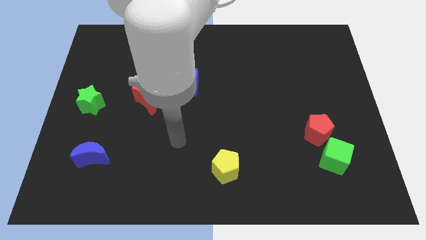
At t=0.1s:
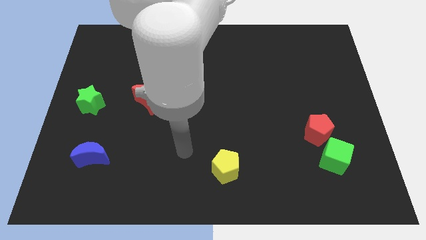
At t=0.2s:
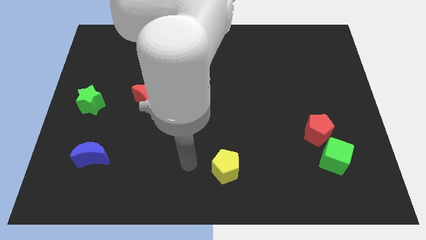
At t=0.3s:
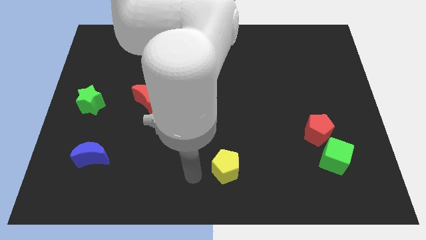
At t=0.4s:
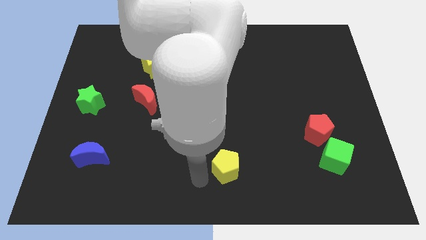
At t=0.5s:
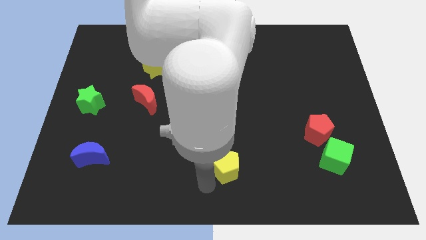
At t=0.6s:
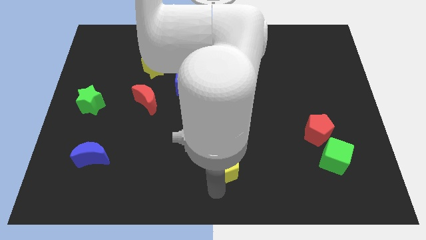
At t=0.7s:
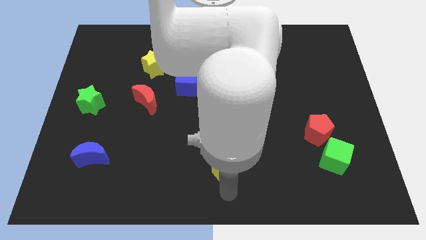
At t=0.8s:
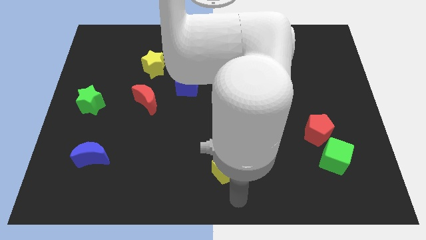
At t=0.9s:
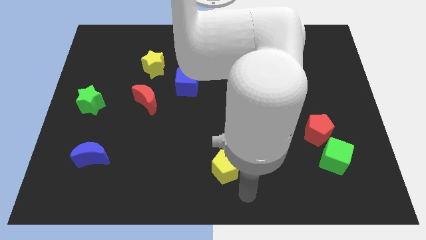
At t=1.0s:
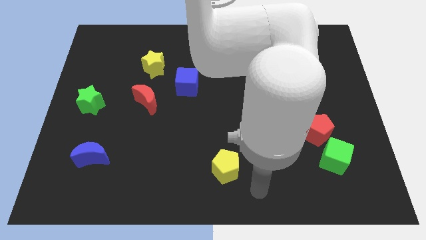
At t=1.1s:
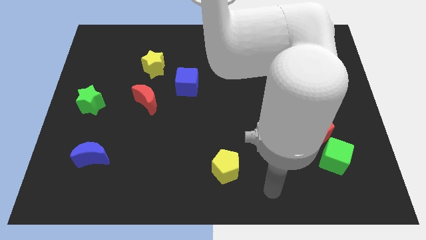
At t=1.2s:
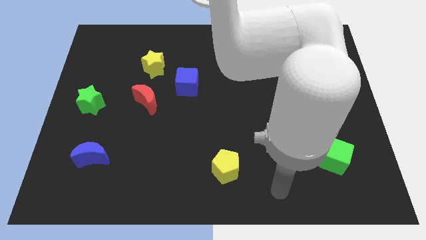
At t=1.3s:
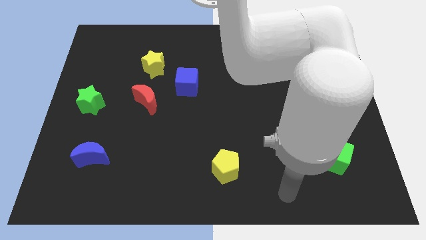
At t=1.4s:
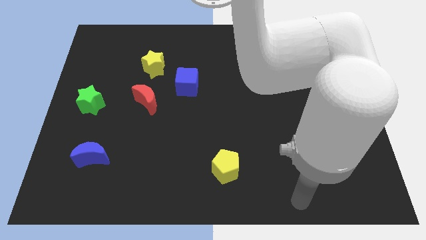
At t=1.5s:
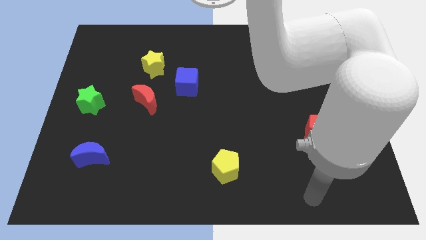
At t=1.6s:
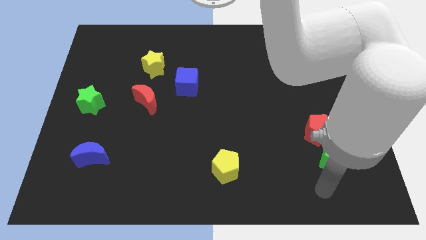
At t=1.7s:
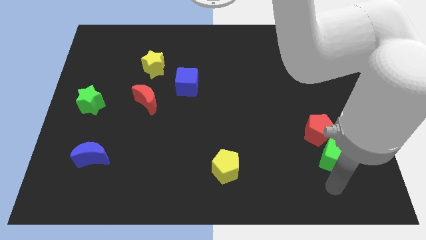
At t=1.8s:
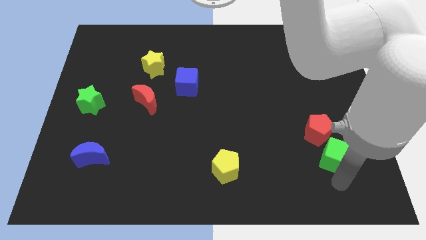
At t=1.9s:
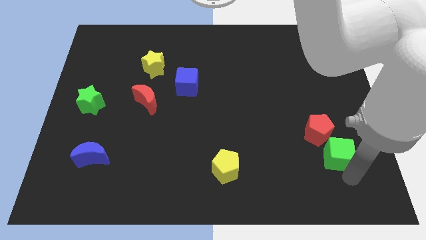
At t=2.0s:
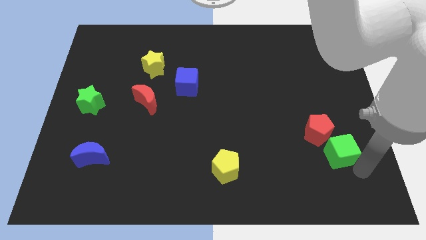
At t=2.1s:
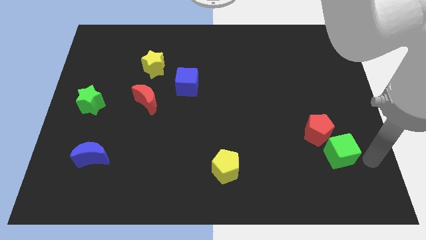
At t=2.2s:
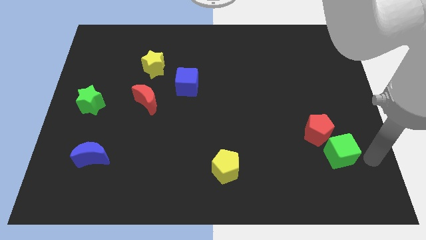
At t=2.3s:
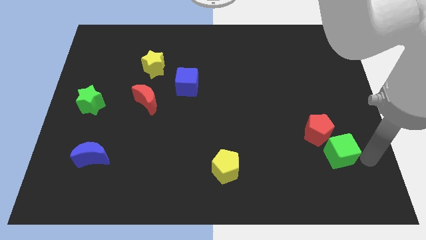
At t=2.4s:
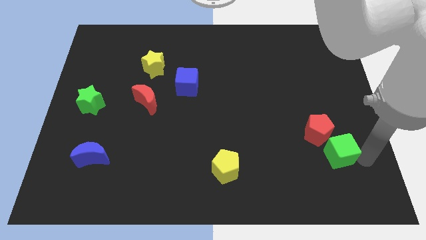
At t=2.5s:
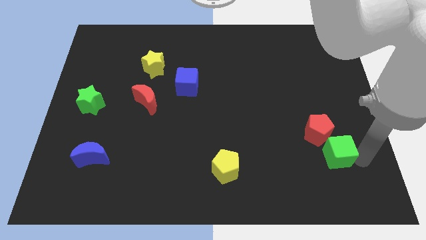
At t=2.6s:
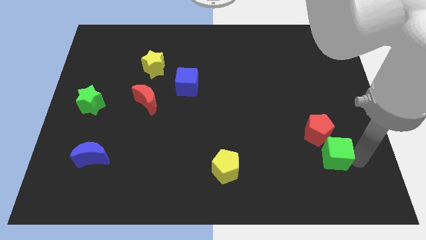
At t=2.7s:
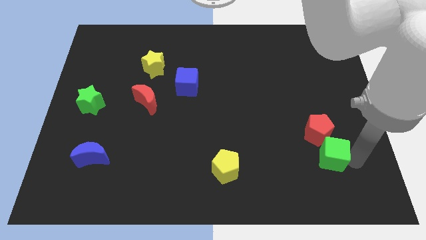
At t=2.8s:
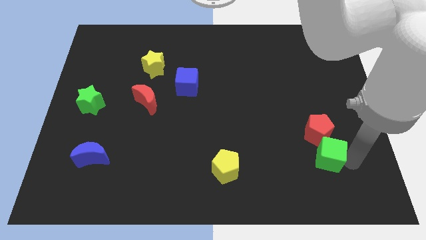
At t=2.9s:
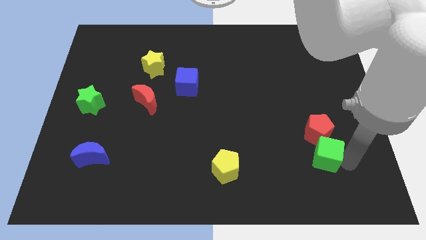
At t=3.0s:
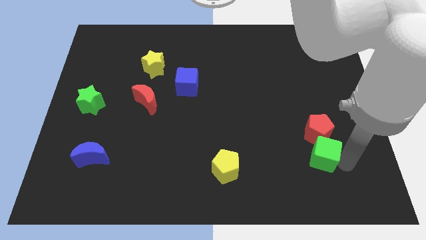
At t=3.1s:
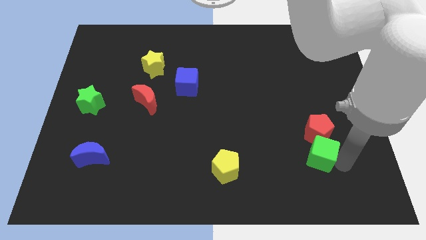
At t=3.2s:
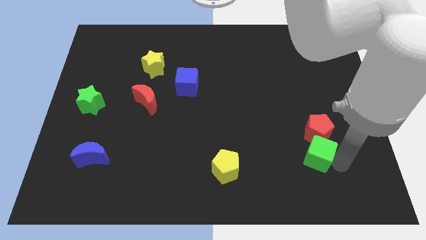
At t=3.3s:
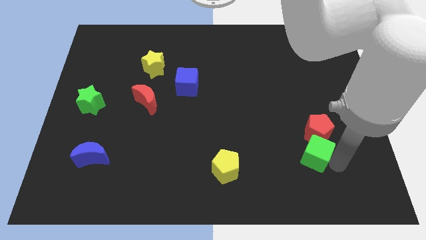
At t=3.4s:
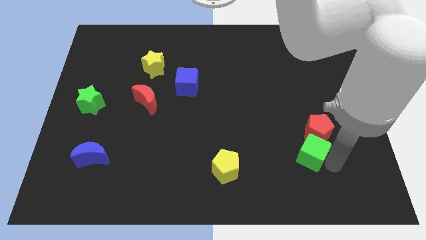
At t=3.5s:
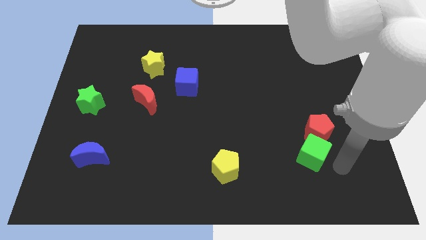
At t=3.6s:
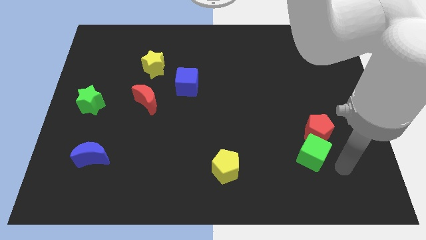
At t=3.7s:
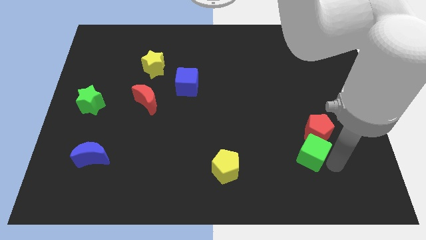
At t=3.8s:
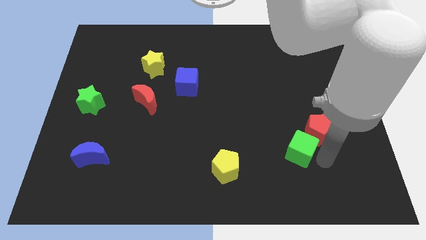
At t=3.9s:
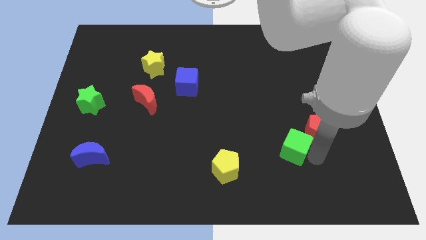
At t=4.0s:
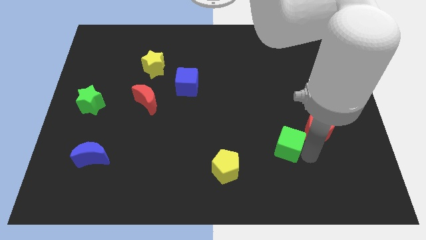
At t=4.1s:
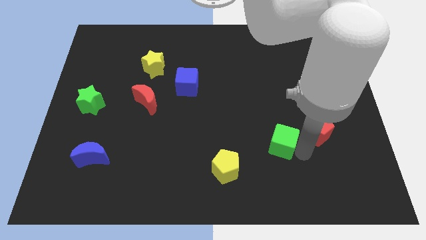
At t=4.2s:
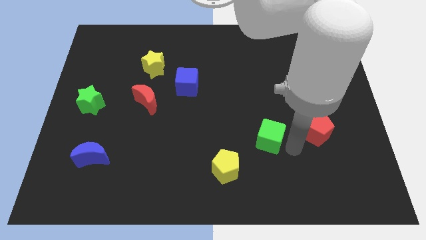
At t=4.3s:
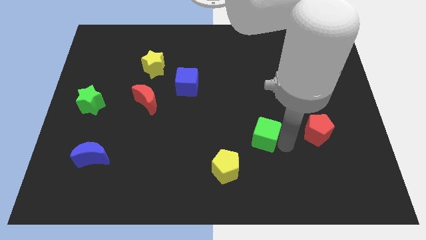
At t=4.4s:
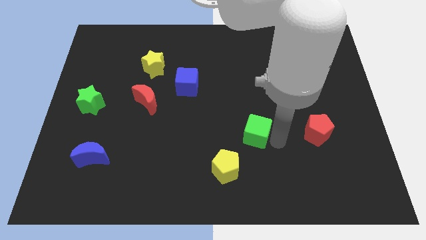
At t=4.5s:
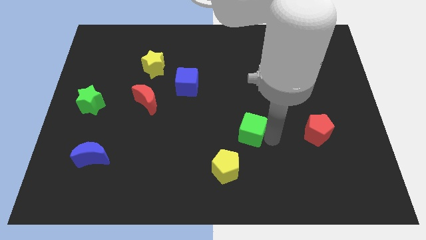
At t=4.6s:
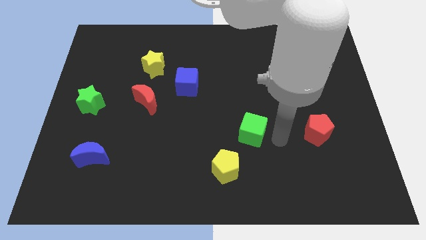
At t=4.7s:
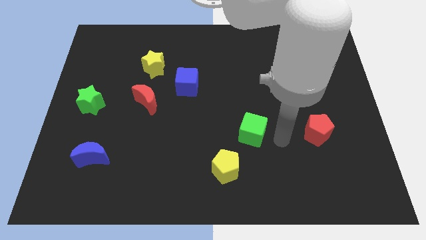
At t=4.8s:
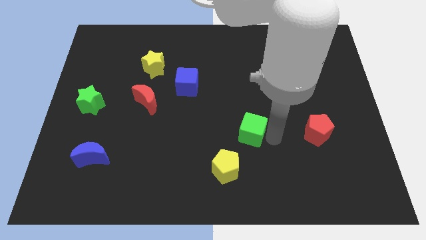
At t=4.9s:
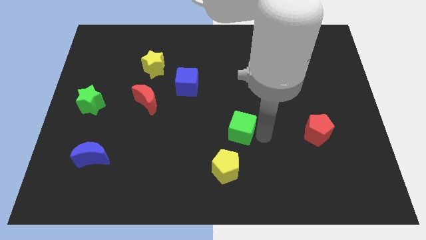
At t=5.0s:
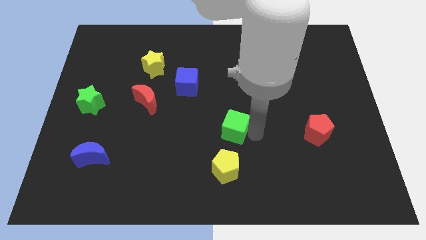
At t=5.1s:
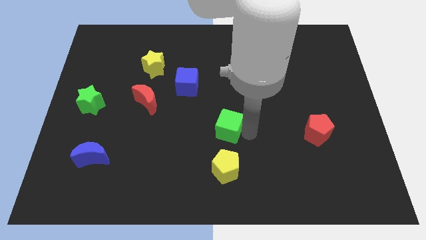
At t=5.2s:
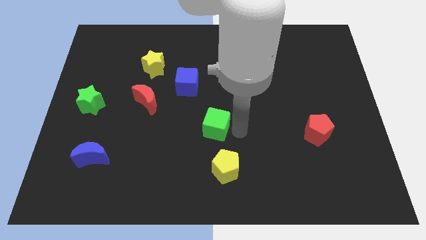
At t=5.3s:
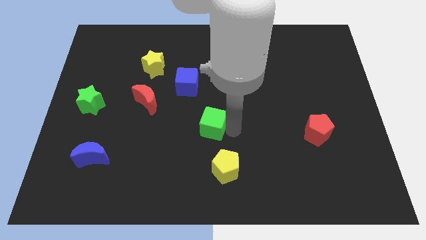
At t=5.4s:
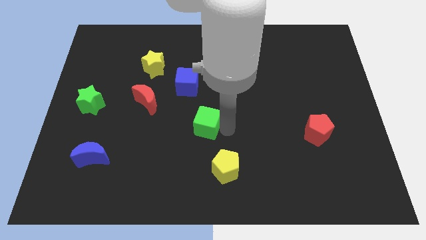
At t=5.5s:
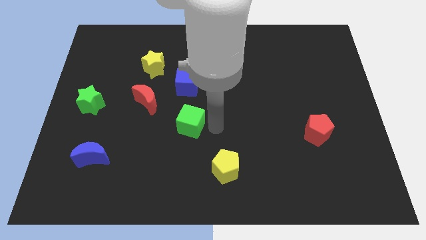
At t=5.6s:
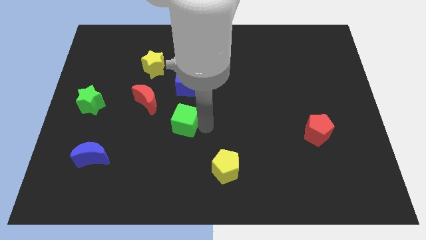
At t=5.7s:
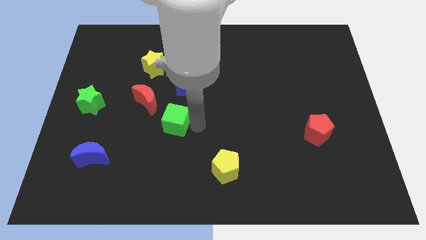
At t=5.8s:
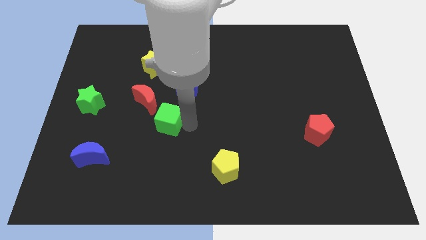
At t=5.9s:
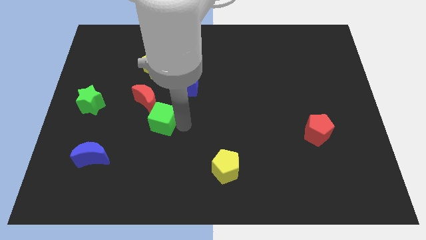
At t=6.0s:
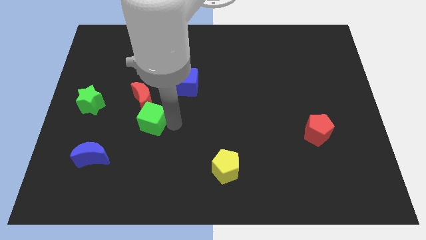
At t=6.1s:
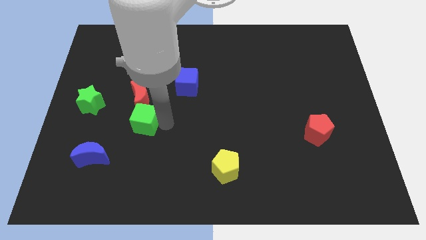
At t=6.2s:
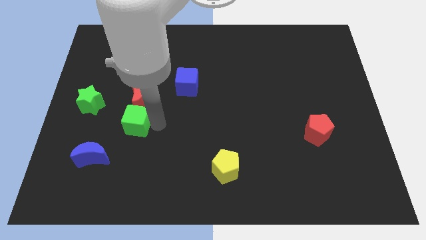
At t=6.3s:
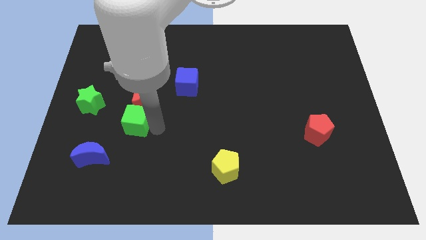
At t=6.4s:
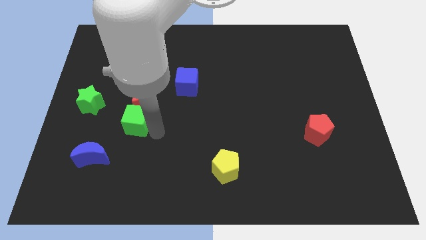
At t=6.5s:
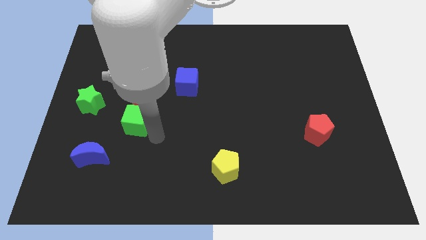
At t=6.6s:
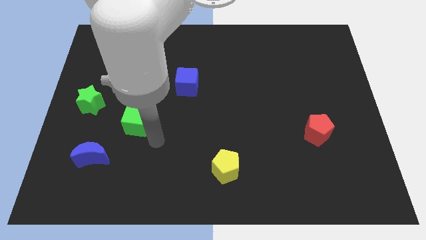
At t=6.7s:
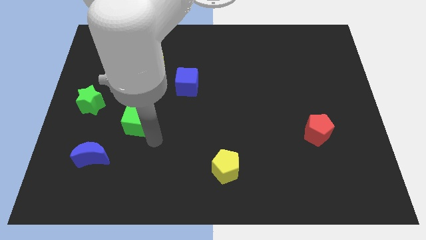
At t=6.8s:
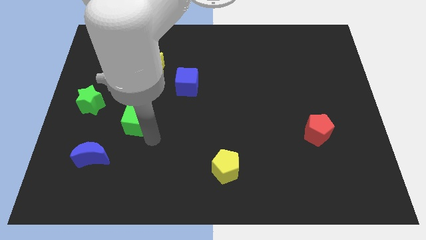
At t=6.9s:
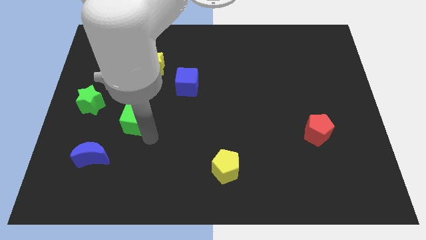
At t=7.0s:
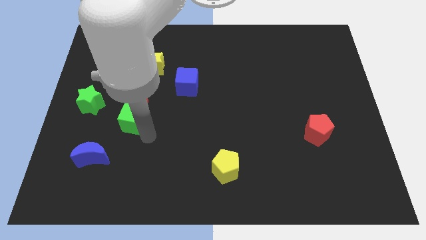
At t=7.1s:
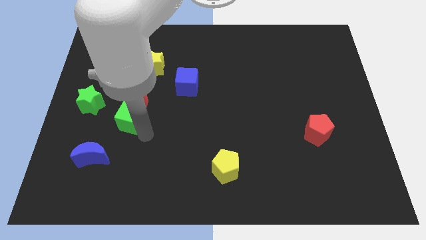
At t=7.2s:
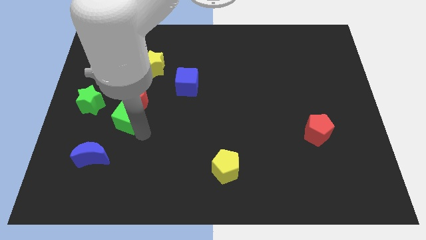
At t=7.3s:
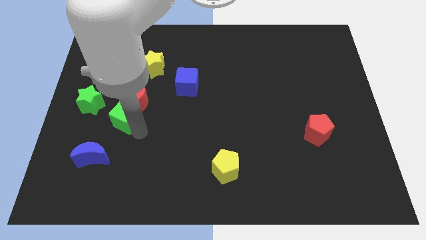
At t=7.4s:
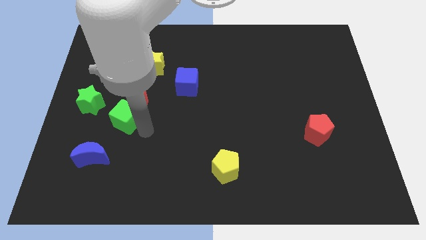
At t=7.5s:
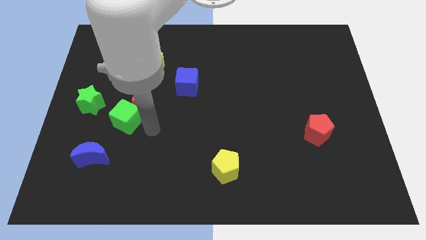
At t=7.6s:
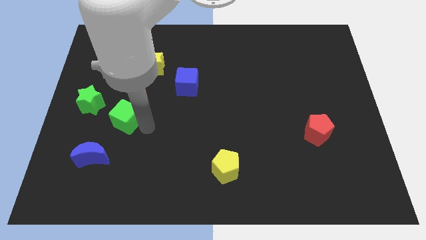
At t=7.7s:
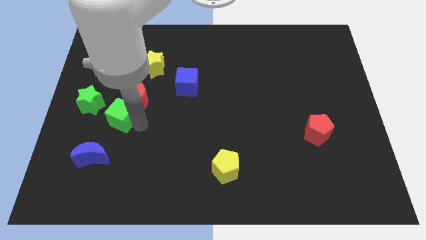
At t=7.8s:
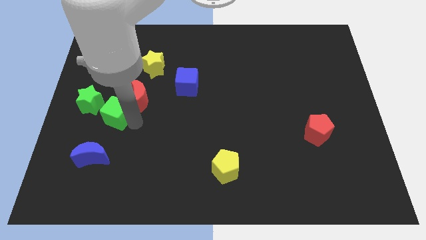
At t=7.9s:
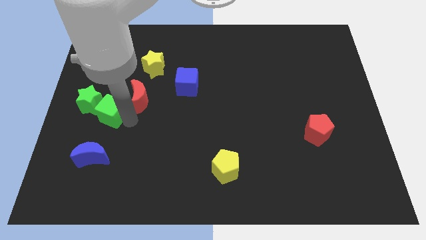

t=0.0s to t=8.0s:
put the green cube towards the green star
